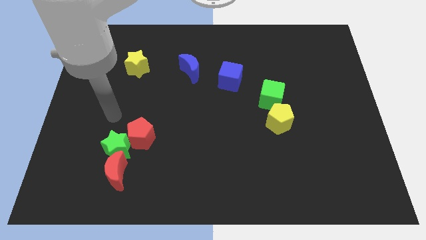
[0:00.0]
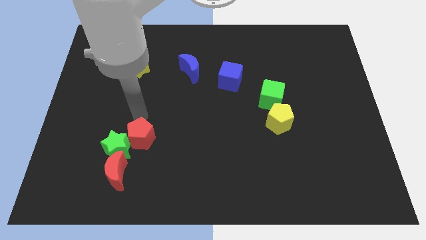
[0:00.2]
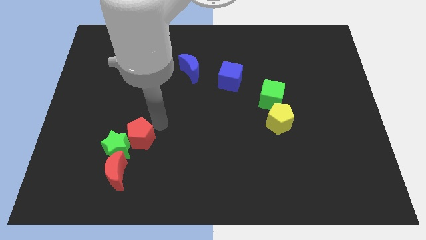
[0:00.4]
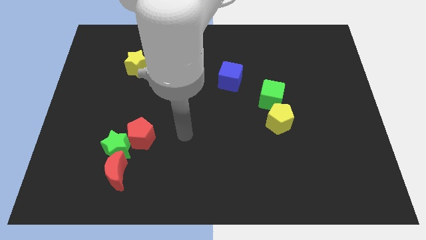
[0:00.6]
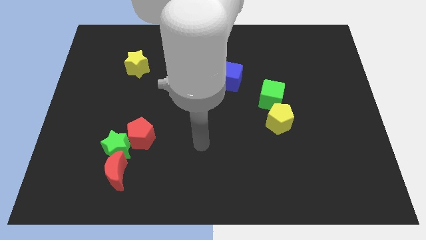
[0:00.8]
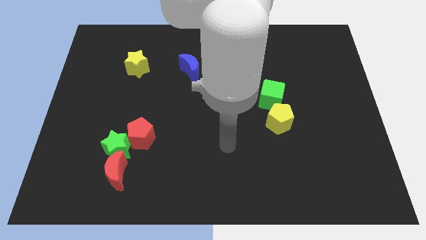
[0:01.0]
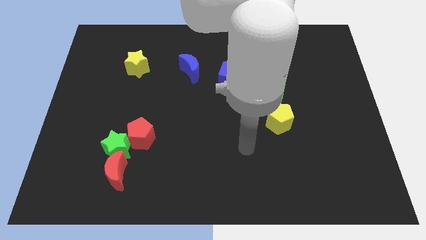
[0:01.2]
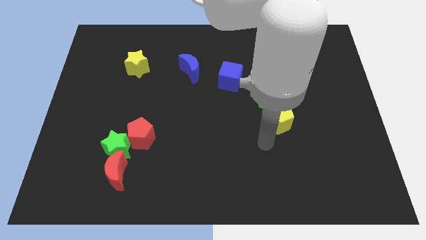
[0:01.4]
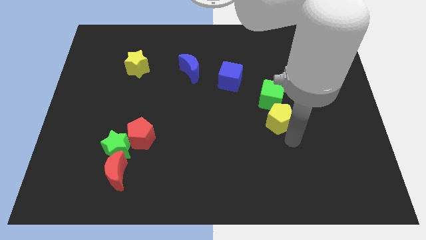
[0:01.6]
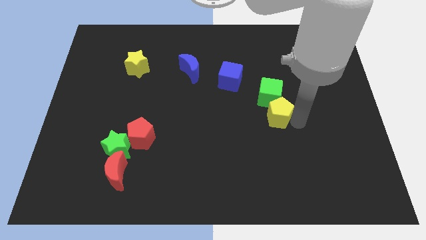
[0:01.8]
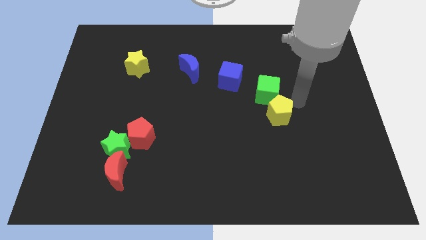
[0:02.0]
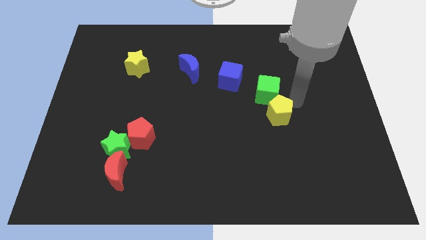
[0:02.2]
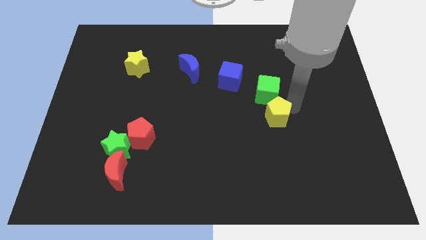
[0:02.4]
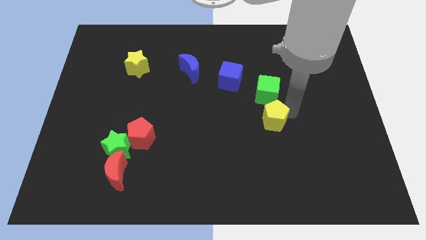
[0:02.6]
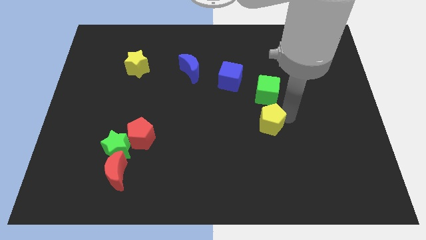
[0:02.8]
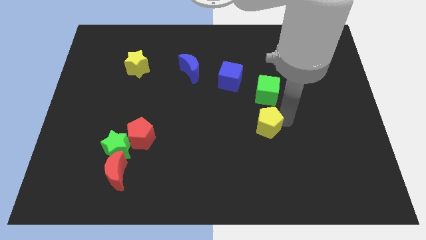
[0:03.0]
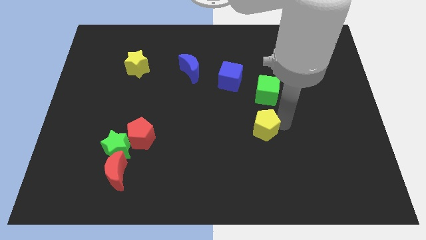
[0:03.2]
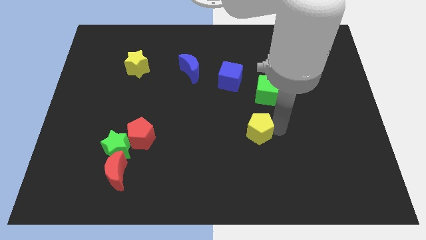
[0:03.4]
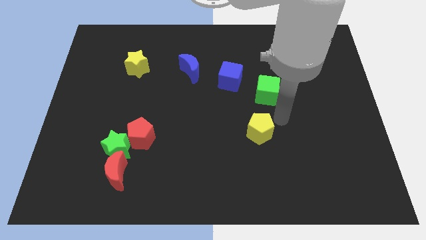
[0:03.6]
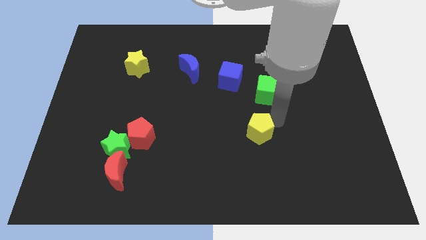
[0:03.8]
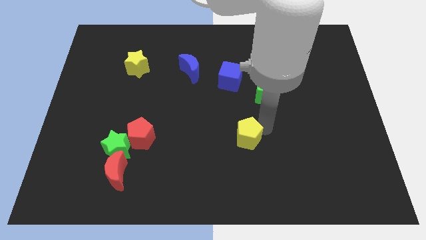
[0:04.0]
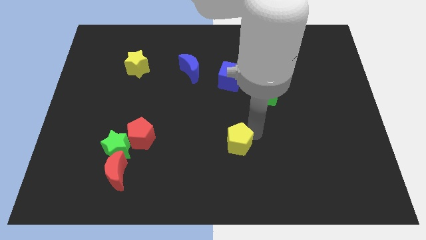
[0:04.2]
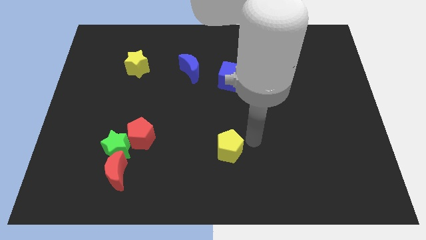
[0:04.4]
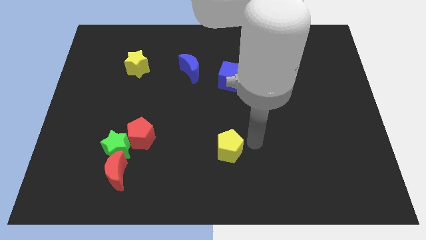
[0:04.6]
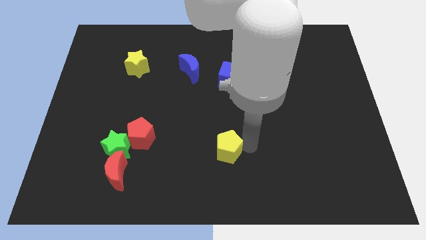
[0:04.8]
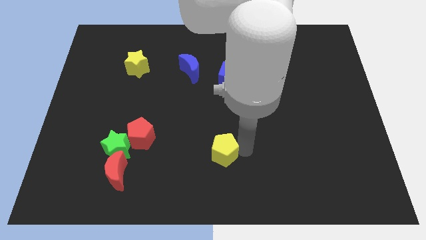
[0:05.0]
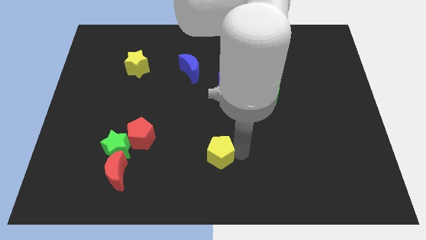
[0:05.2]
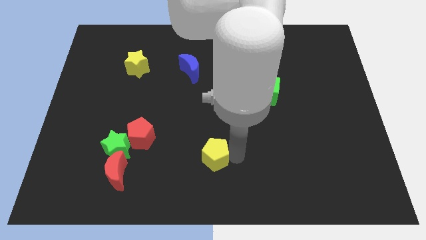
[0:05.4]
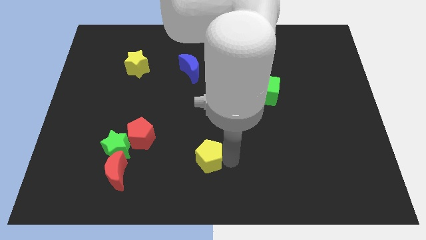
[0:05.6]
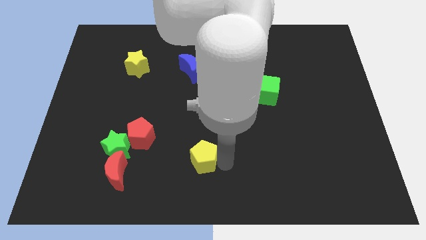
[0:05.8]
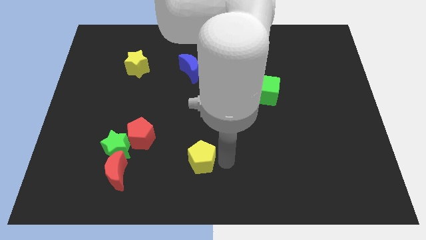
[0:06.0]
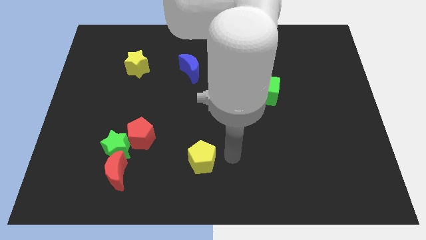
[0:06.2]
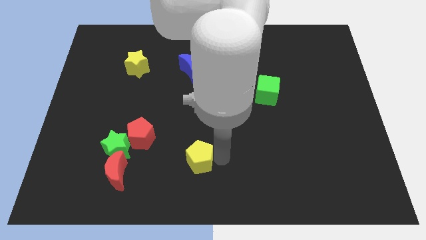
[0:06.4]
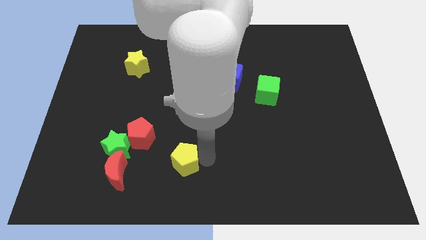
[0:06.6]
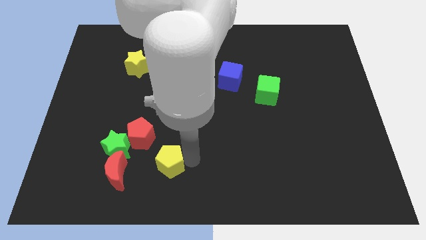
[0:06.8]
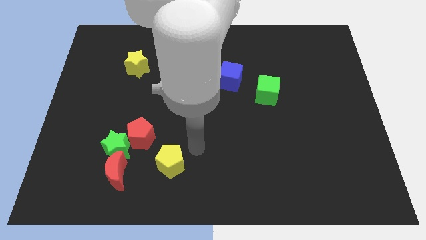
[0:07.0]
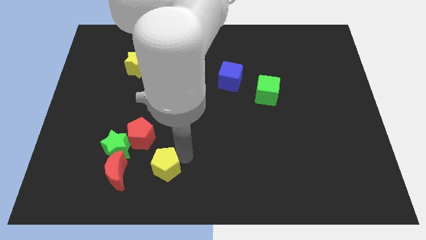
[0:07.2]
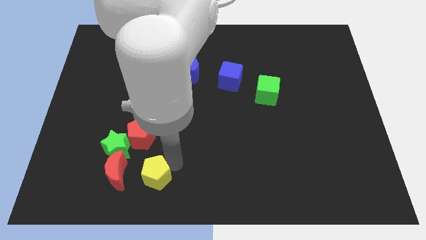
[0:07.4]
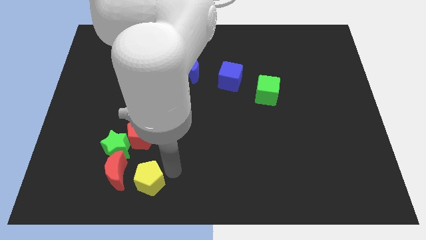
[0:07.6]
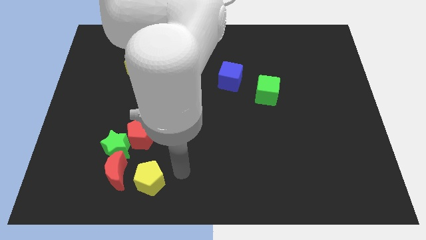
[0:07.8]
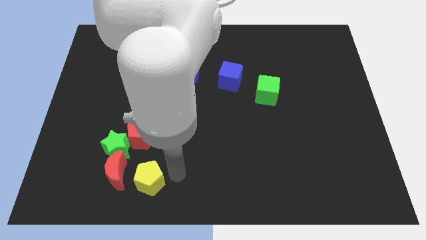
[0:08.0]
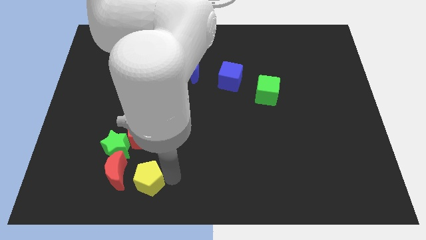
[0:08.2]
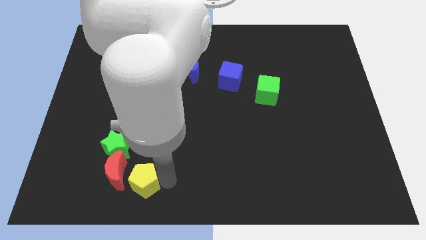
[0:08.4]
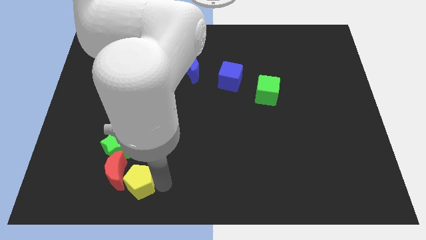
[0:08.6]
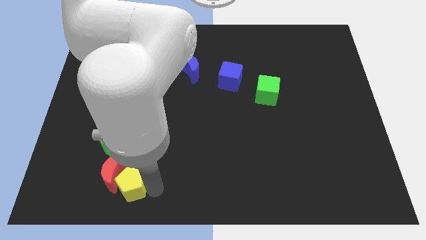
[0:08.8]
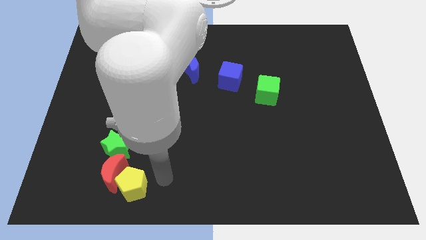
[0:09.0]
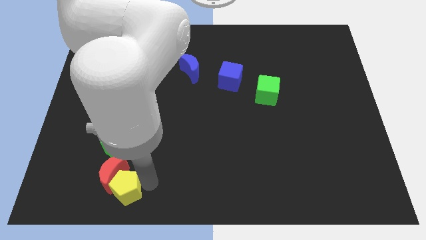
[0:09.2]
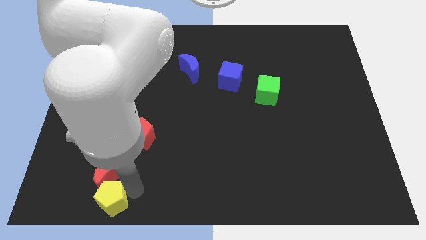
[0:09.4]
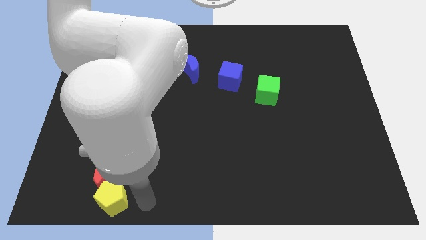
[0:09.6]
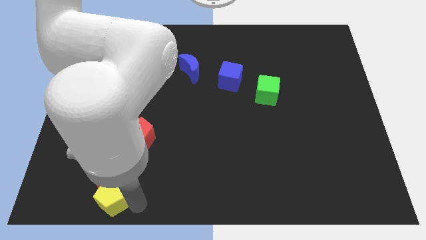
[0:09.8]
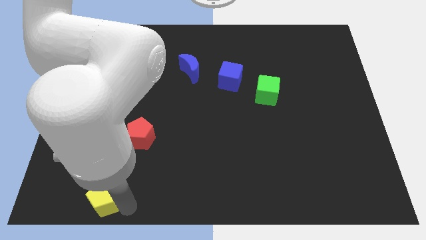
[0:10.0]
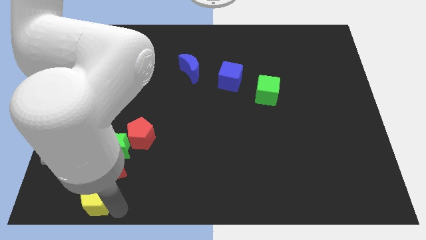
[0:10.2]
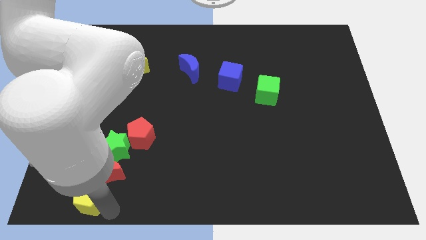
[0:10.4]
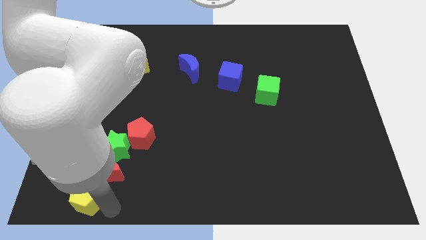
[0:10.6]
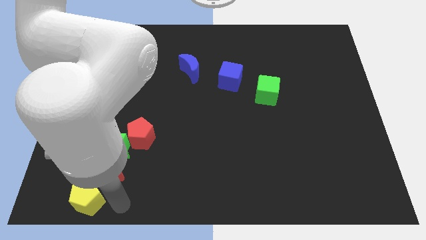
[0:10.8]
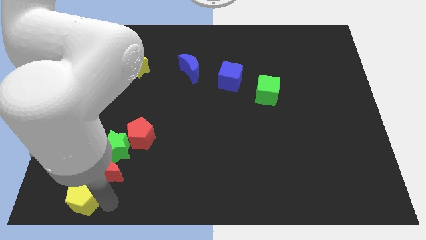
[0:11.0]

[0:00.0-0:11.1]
slide the yellow pentagon to the bottom left of the board
